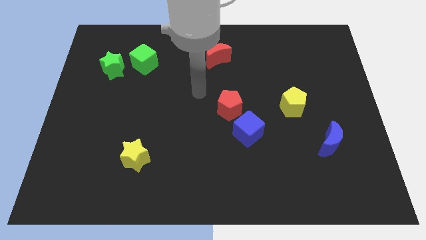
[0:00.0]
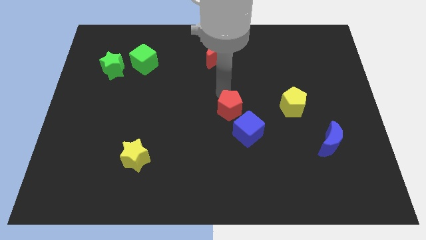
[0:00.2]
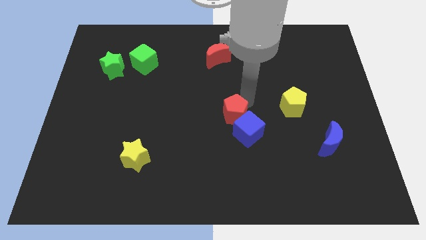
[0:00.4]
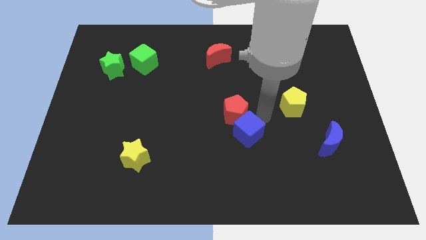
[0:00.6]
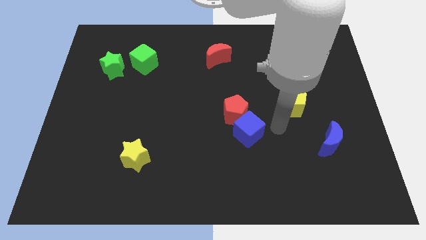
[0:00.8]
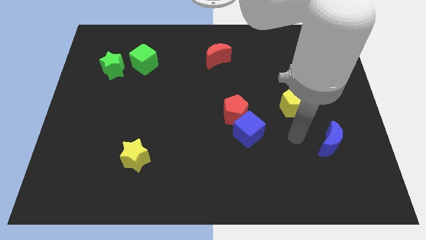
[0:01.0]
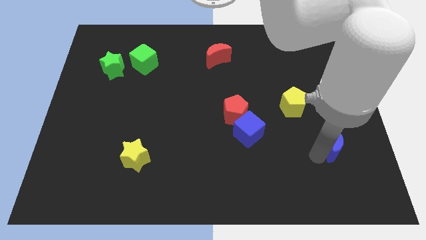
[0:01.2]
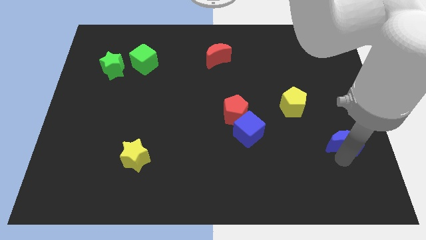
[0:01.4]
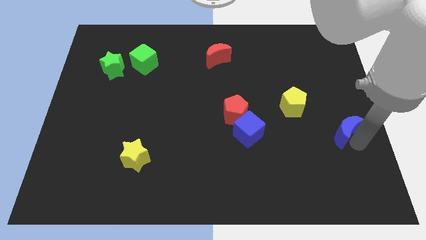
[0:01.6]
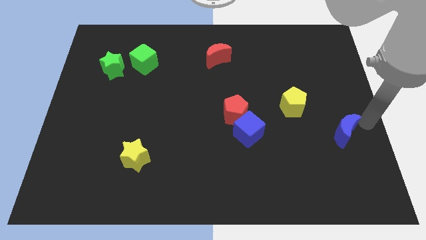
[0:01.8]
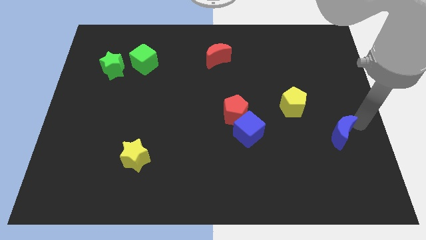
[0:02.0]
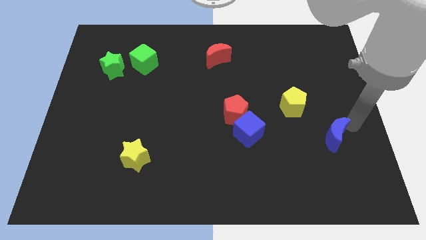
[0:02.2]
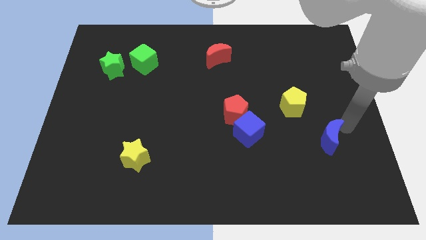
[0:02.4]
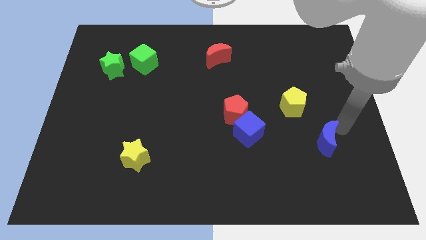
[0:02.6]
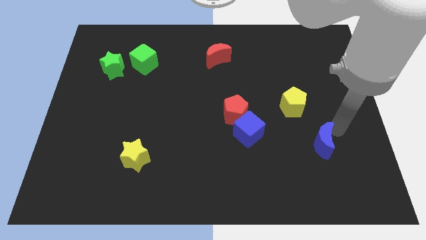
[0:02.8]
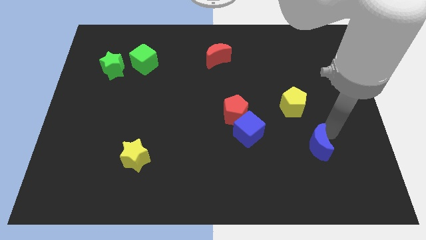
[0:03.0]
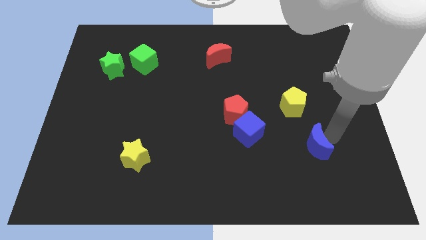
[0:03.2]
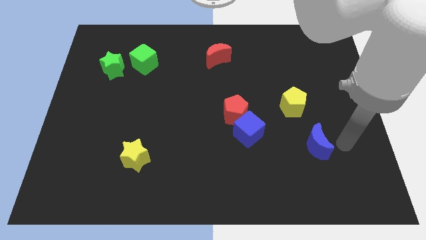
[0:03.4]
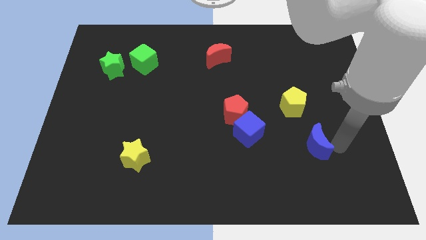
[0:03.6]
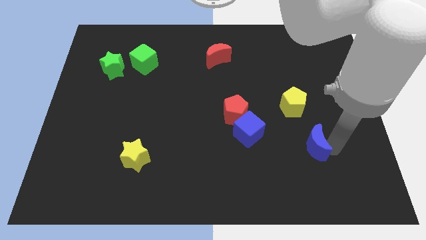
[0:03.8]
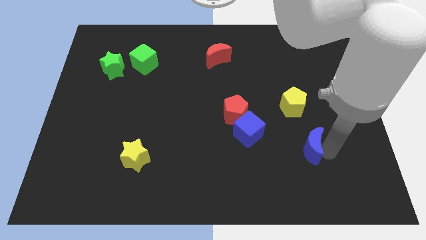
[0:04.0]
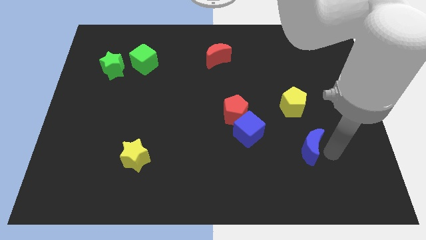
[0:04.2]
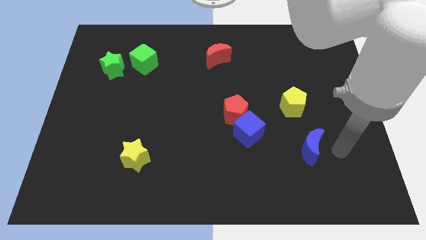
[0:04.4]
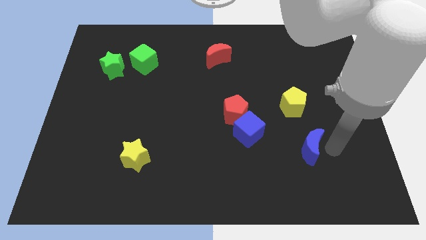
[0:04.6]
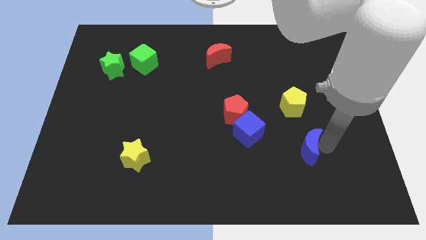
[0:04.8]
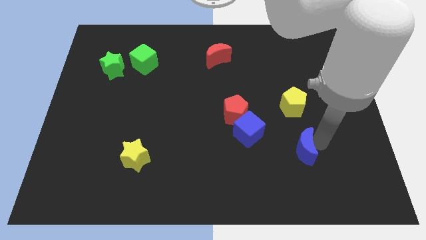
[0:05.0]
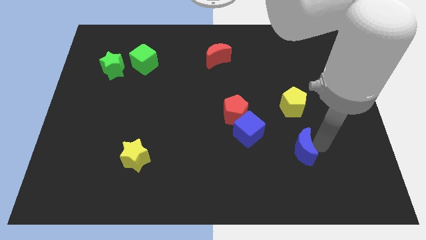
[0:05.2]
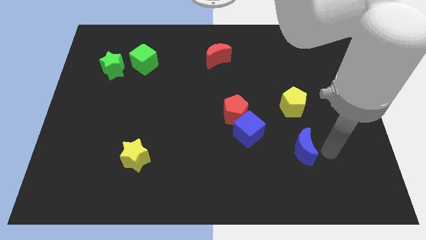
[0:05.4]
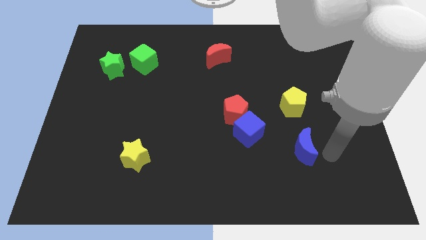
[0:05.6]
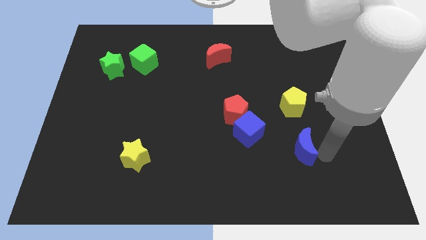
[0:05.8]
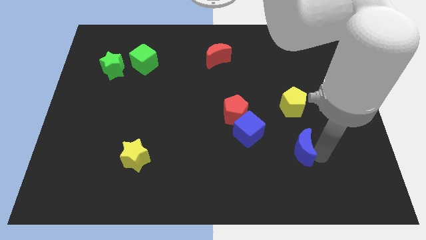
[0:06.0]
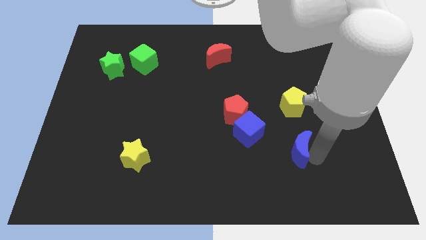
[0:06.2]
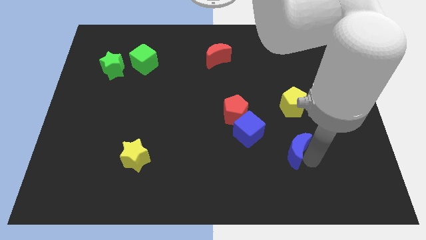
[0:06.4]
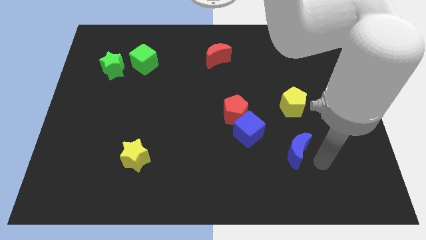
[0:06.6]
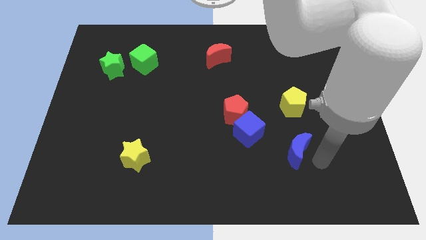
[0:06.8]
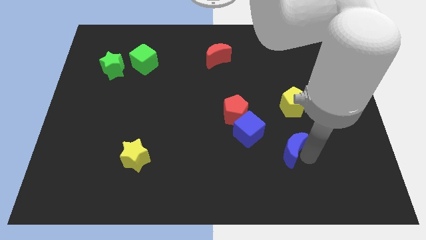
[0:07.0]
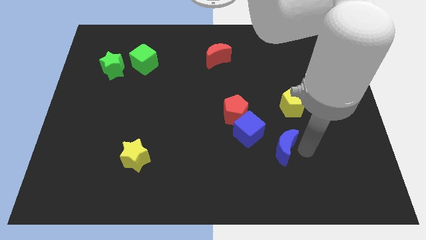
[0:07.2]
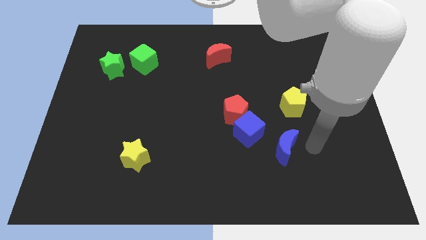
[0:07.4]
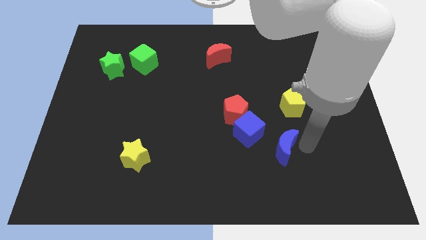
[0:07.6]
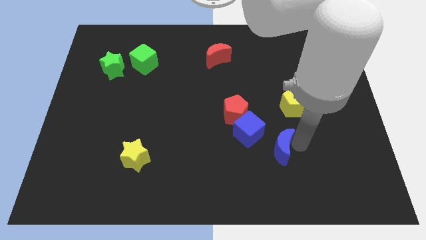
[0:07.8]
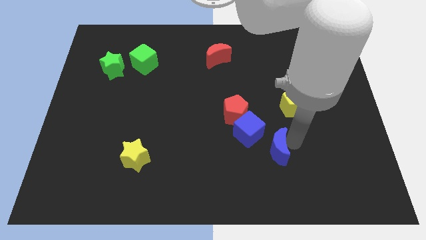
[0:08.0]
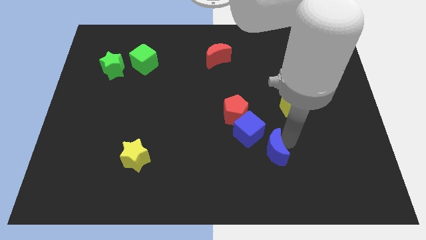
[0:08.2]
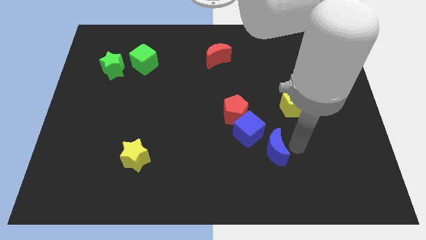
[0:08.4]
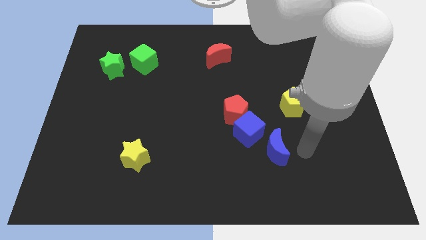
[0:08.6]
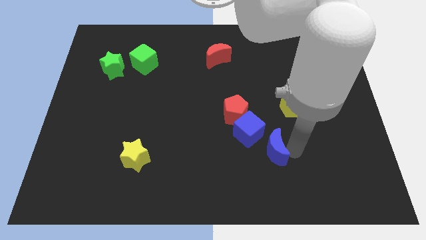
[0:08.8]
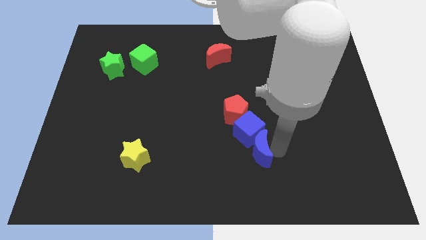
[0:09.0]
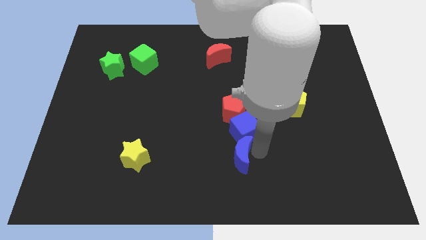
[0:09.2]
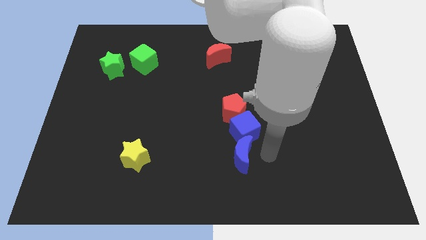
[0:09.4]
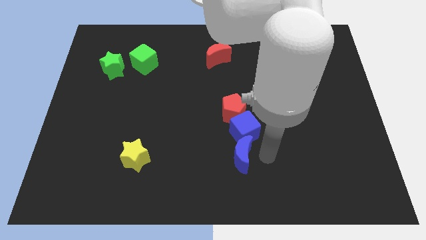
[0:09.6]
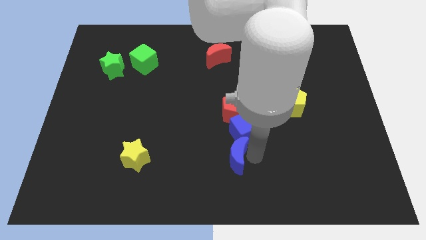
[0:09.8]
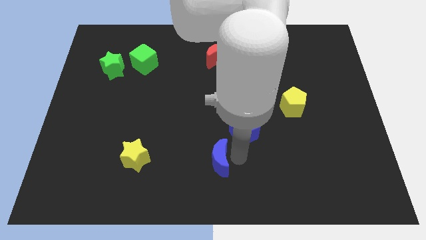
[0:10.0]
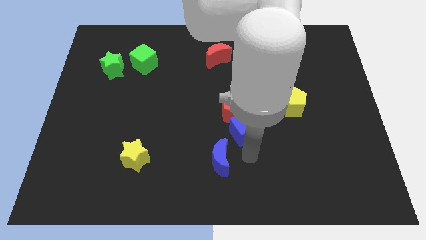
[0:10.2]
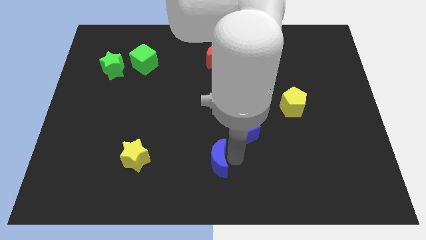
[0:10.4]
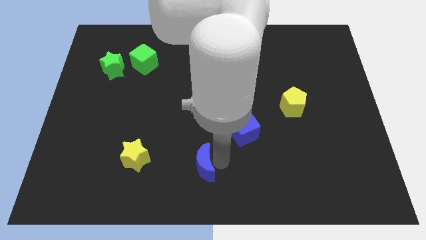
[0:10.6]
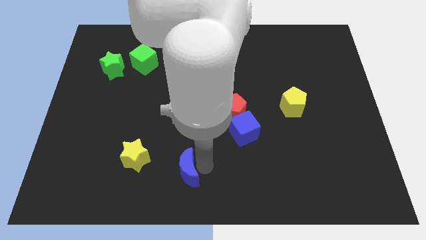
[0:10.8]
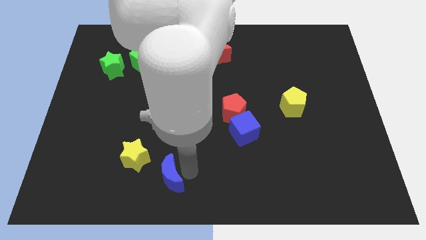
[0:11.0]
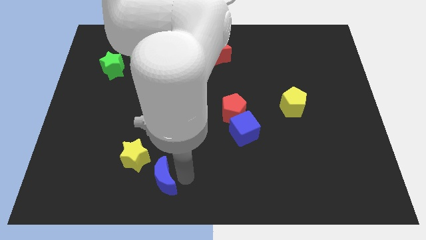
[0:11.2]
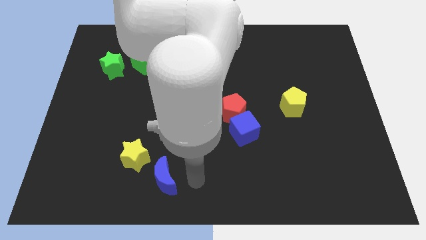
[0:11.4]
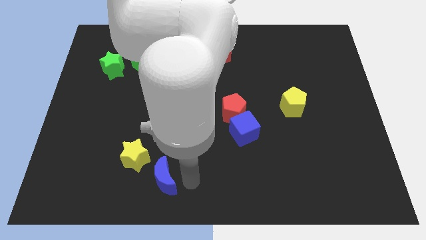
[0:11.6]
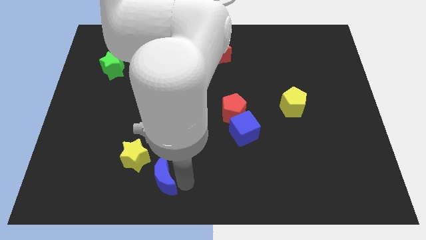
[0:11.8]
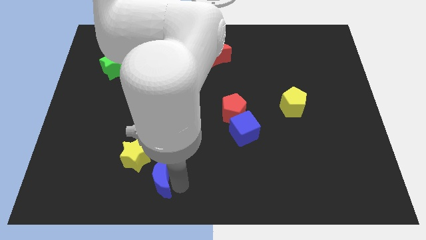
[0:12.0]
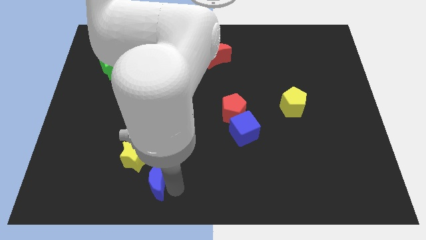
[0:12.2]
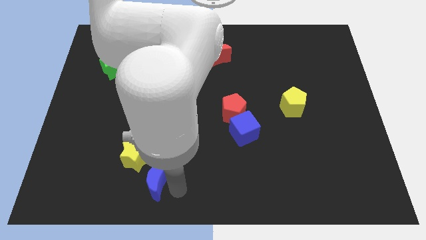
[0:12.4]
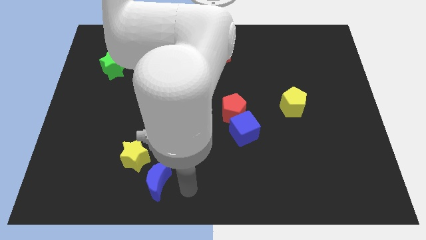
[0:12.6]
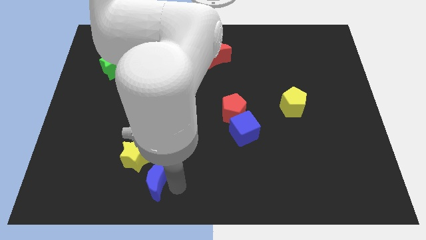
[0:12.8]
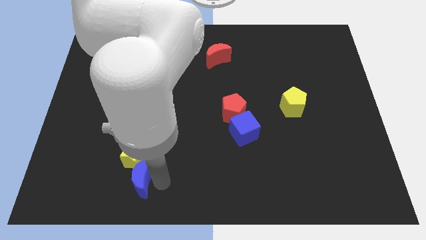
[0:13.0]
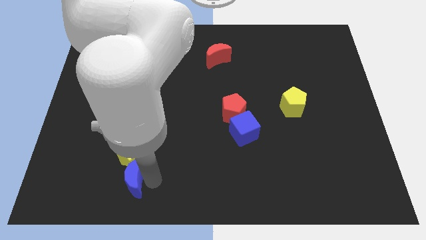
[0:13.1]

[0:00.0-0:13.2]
put the blue moon to the bottom left side of the yellow star
